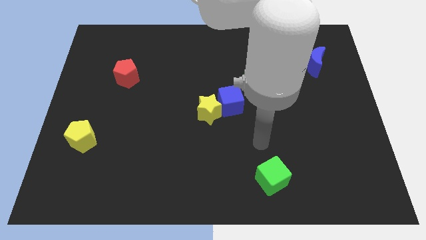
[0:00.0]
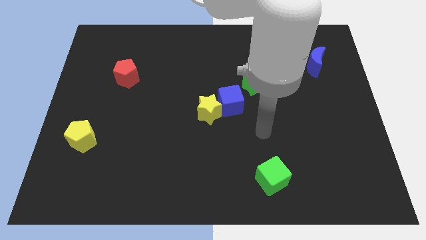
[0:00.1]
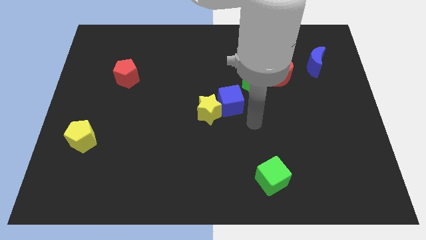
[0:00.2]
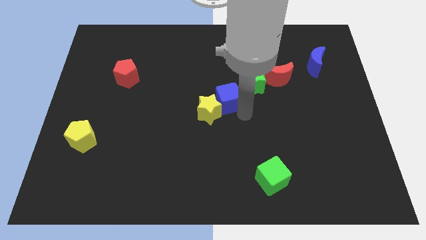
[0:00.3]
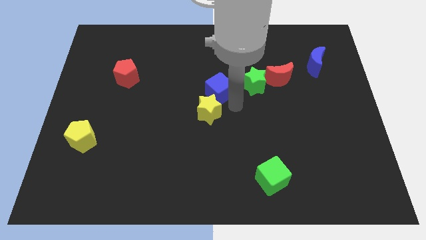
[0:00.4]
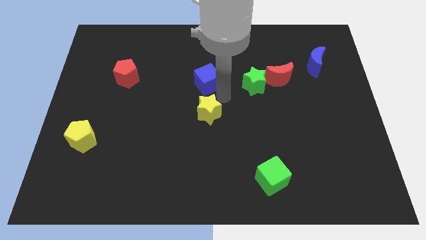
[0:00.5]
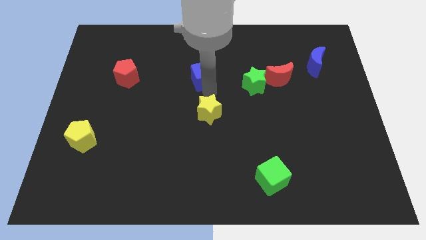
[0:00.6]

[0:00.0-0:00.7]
move the yellow star away from the blue cube

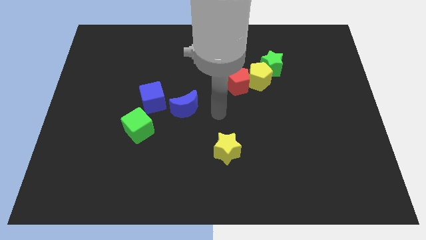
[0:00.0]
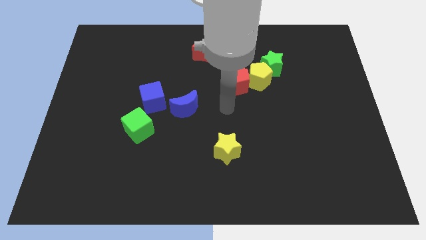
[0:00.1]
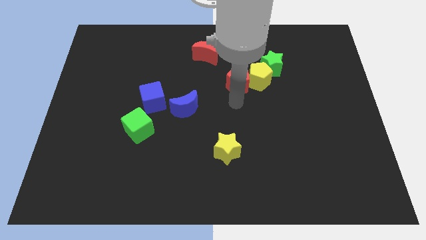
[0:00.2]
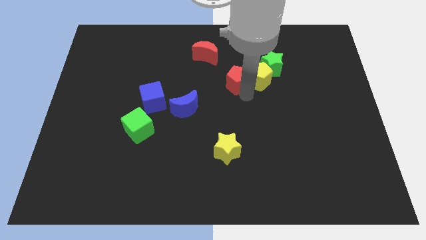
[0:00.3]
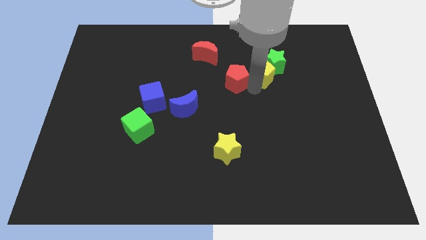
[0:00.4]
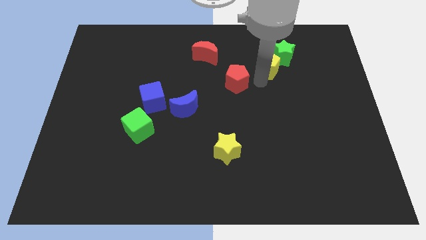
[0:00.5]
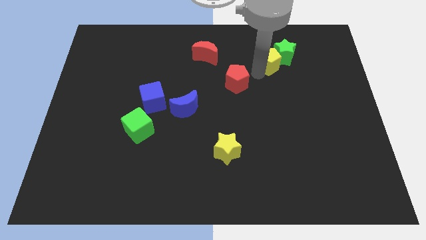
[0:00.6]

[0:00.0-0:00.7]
move the red pentagon away from the yellow pentagon

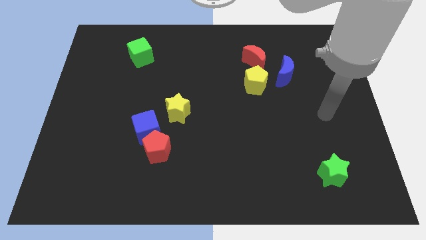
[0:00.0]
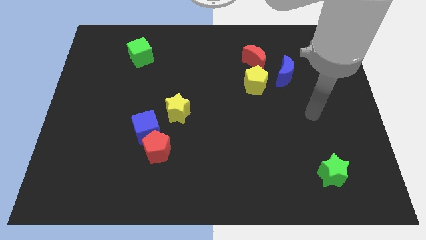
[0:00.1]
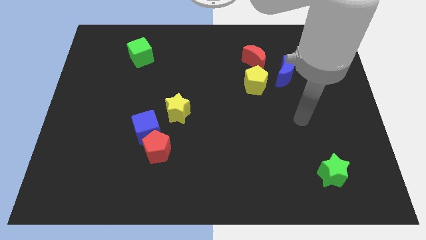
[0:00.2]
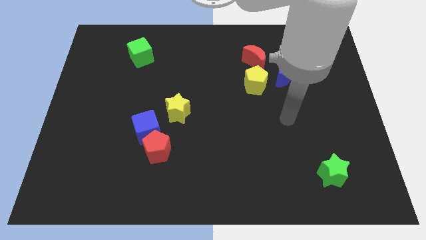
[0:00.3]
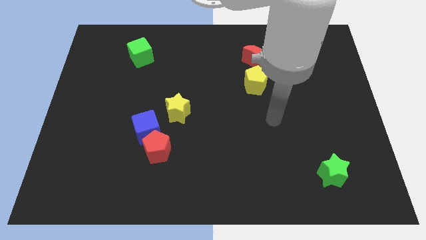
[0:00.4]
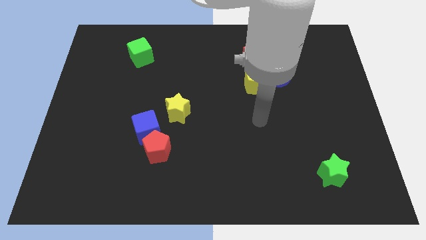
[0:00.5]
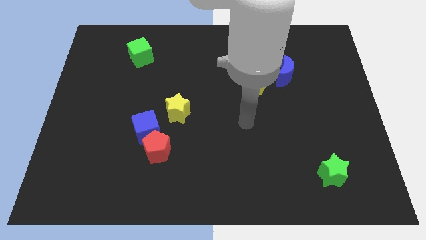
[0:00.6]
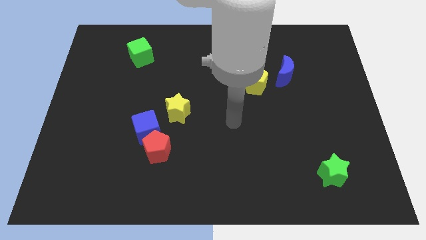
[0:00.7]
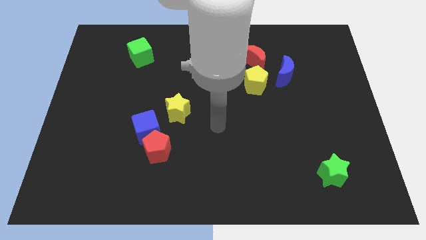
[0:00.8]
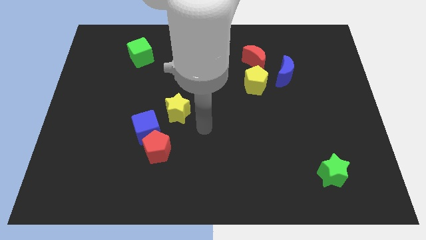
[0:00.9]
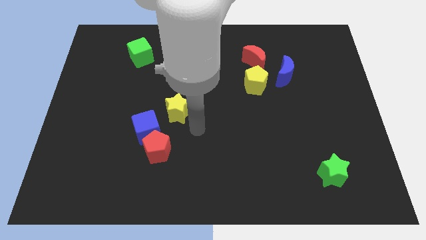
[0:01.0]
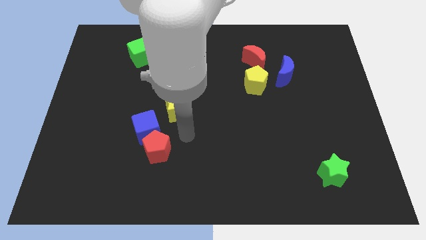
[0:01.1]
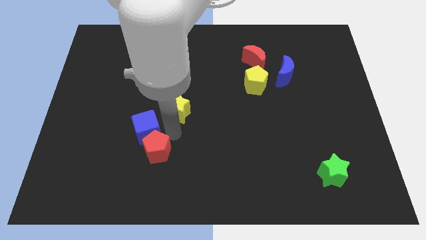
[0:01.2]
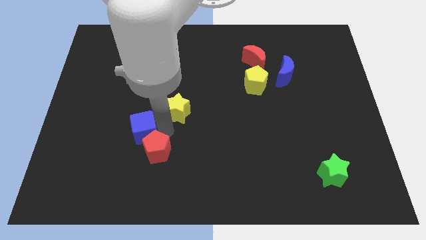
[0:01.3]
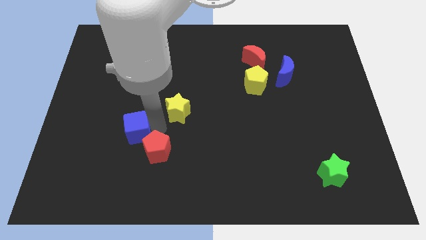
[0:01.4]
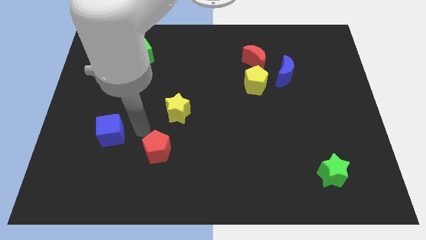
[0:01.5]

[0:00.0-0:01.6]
move the red pentagon away from the blue cube

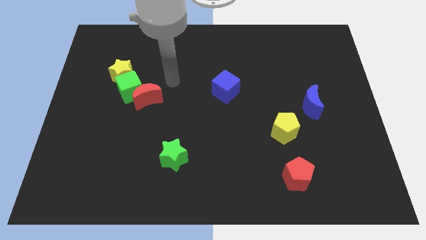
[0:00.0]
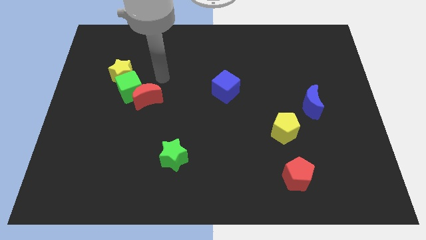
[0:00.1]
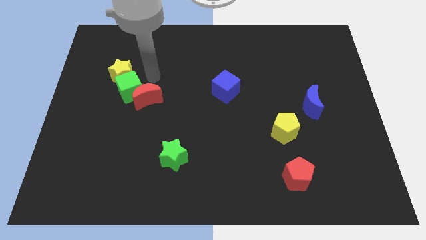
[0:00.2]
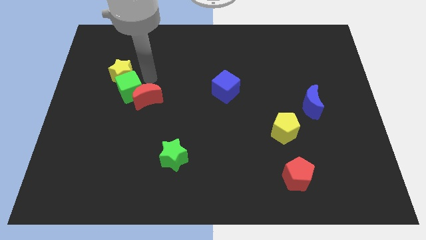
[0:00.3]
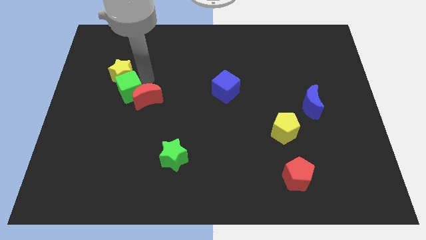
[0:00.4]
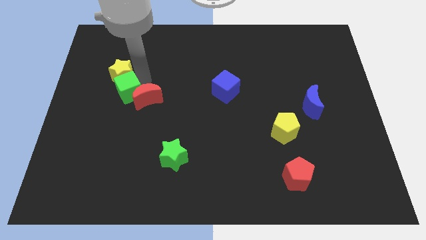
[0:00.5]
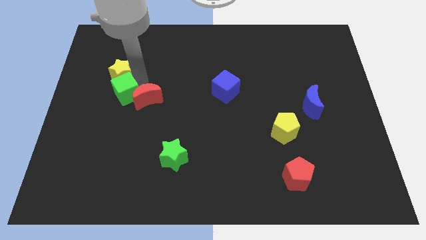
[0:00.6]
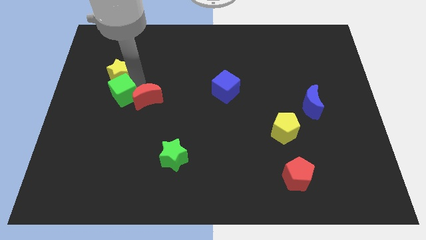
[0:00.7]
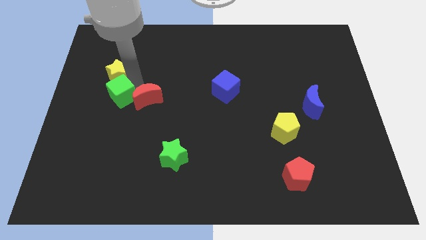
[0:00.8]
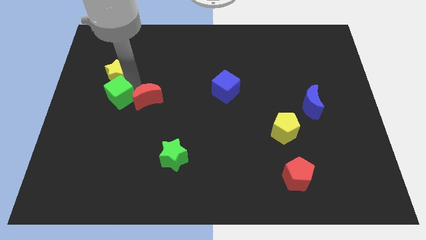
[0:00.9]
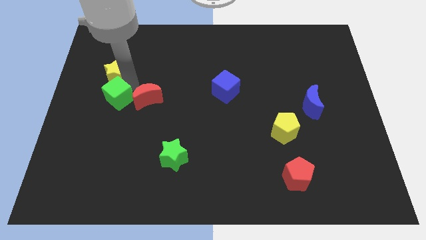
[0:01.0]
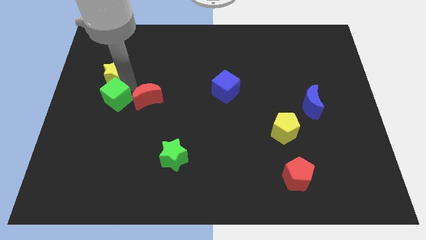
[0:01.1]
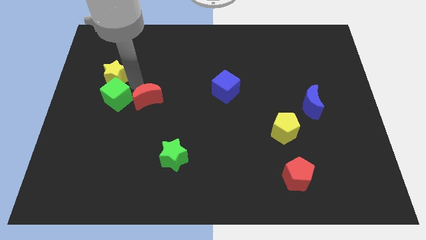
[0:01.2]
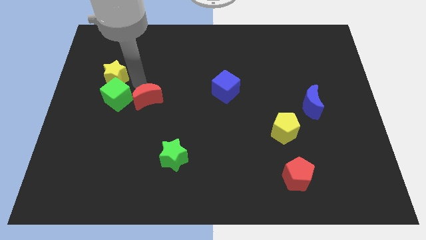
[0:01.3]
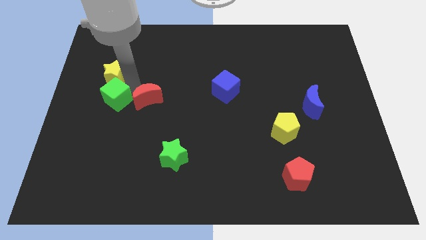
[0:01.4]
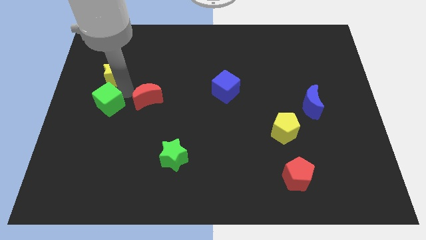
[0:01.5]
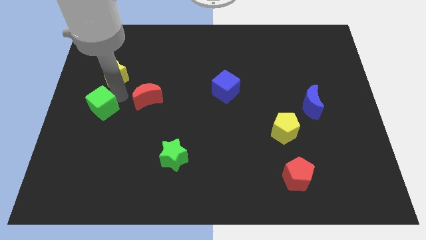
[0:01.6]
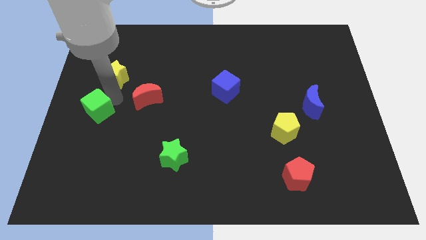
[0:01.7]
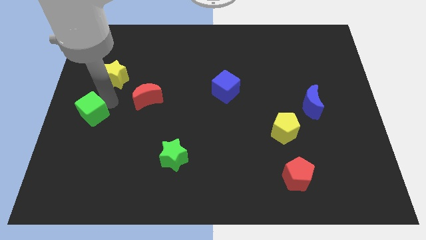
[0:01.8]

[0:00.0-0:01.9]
pull the green cube apart from the yellow star and red moon

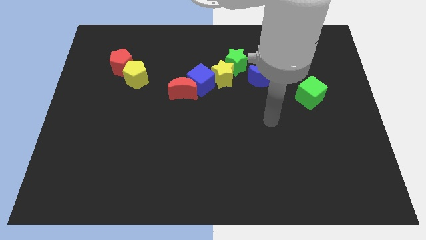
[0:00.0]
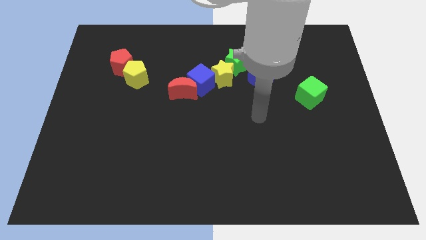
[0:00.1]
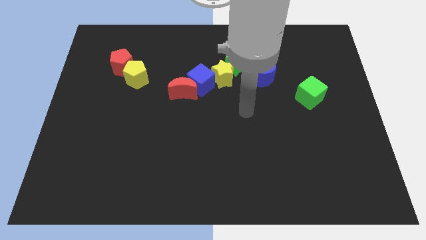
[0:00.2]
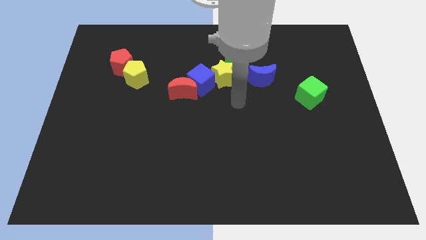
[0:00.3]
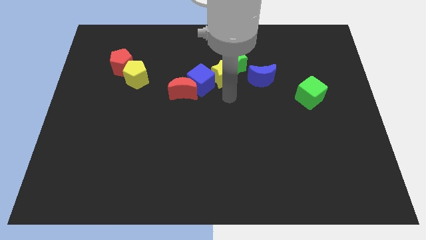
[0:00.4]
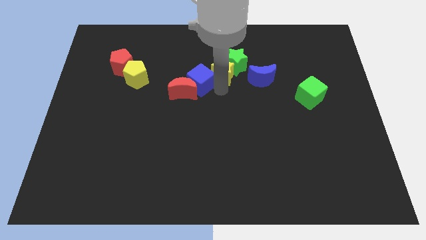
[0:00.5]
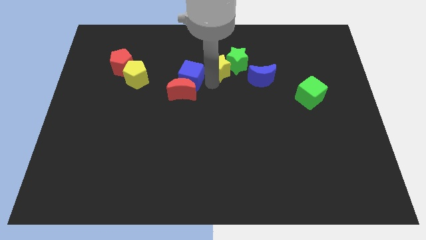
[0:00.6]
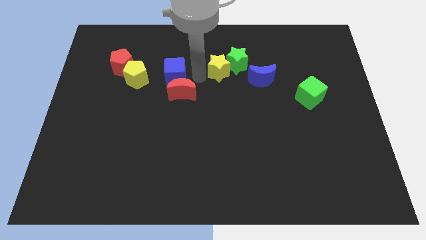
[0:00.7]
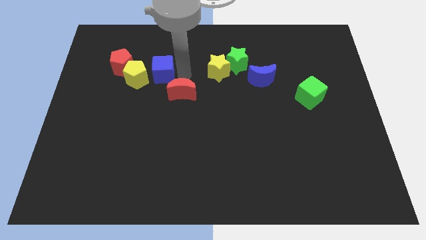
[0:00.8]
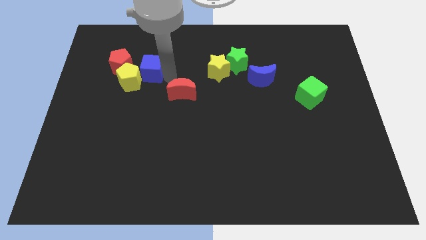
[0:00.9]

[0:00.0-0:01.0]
pull the red moon apart from the blue cube

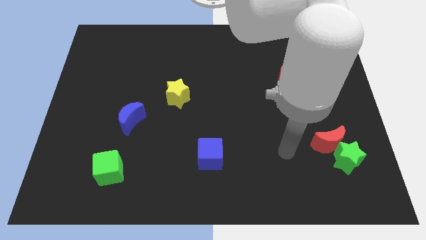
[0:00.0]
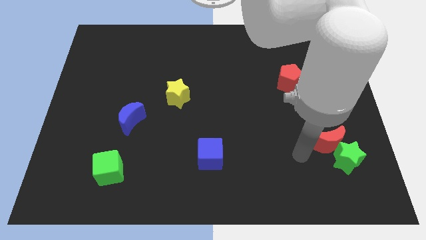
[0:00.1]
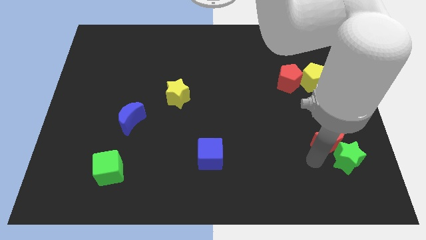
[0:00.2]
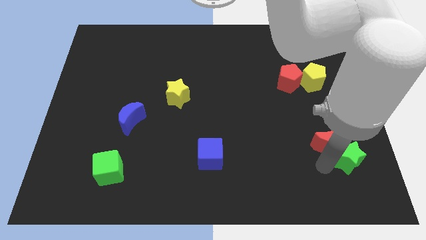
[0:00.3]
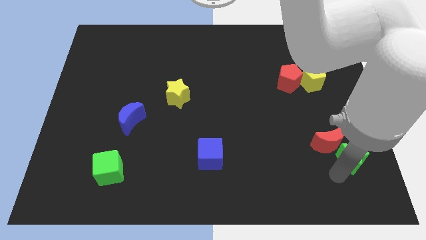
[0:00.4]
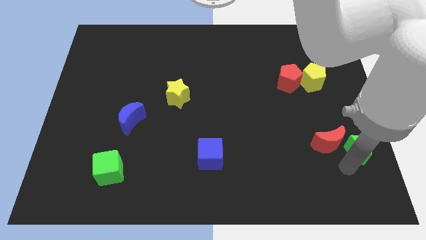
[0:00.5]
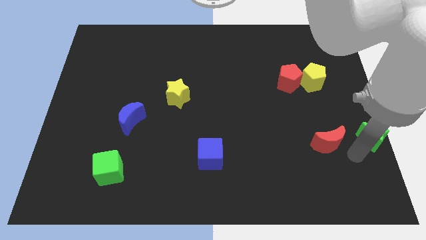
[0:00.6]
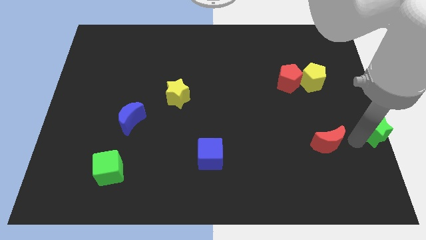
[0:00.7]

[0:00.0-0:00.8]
pull the red moon apart from the green star

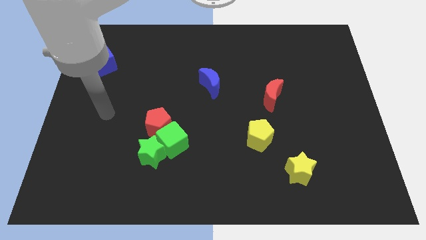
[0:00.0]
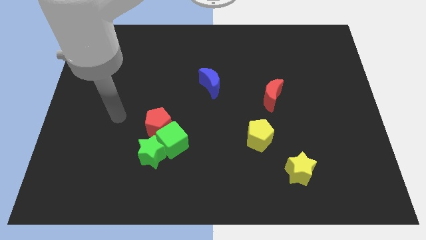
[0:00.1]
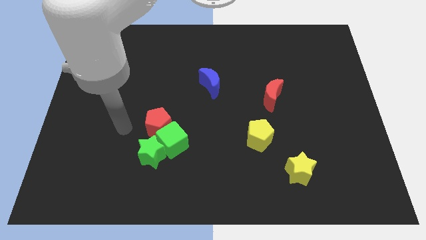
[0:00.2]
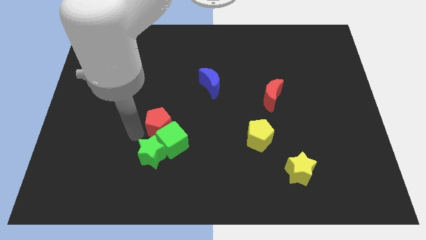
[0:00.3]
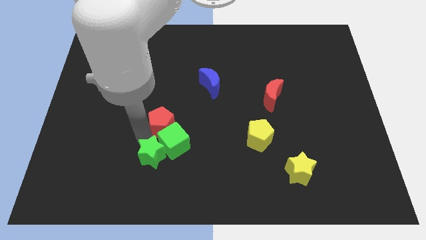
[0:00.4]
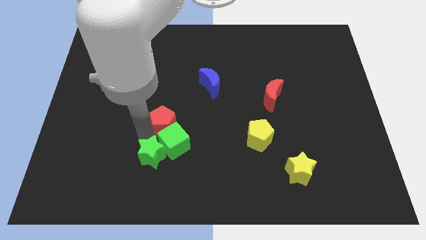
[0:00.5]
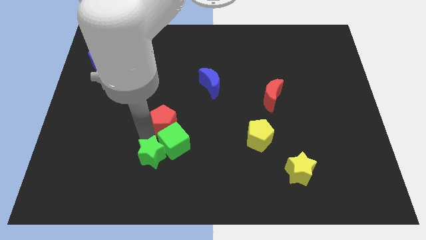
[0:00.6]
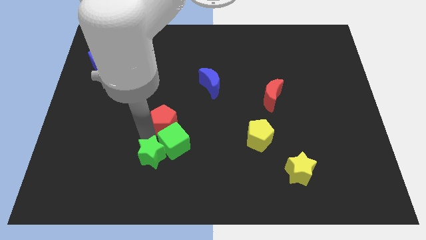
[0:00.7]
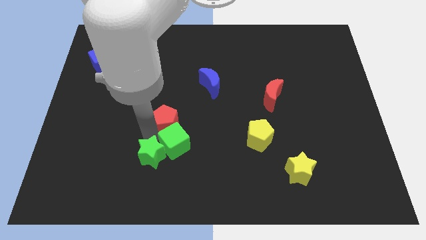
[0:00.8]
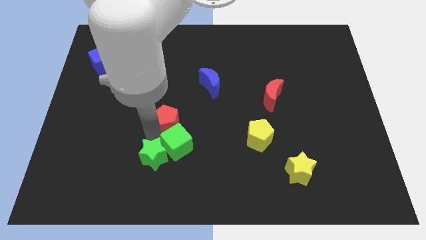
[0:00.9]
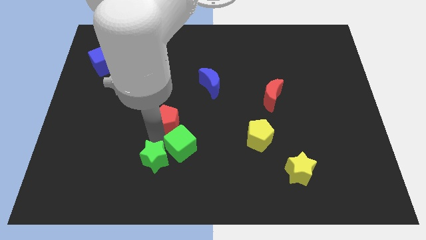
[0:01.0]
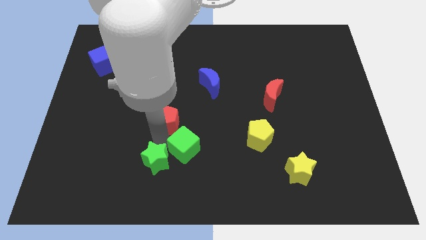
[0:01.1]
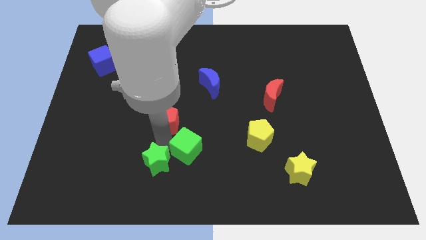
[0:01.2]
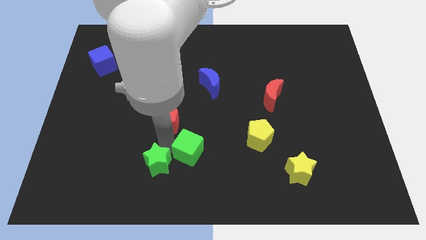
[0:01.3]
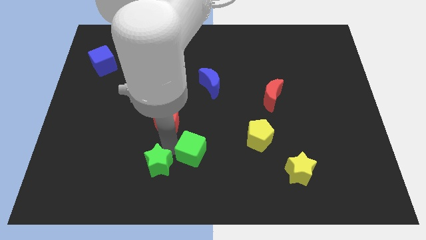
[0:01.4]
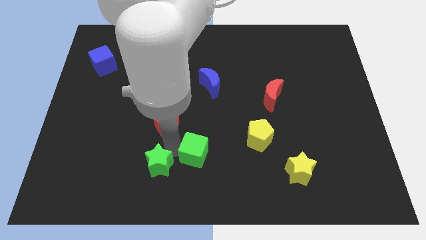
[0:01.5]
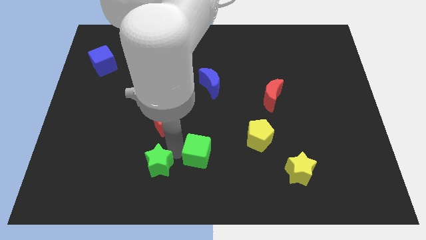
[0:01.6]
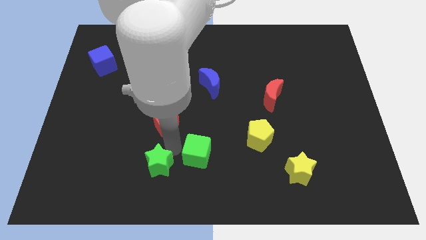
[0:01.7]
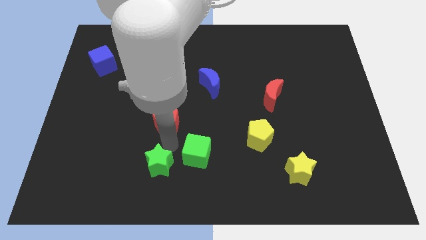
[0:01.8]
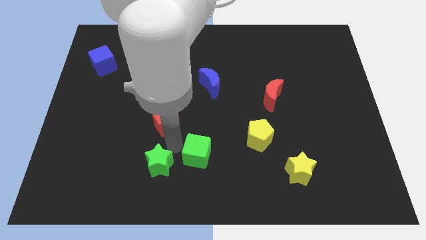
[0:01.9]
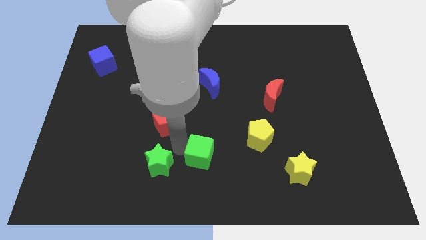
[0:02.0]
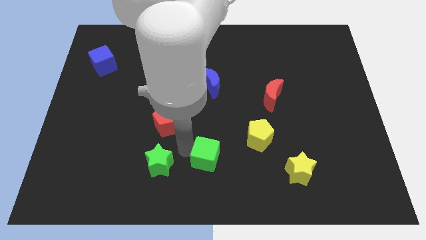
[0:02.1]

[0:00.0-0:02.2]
separate the green cube from the green star and red pentagon

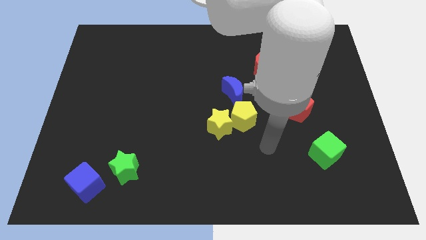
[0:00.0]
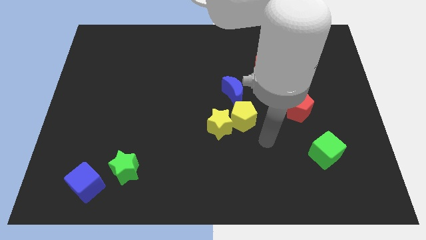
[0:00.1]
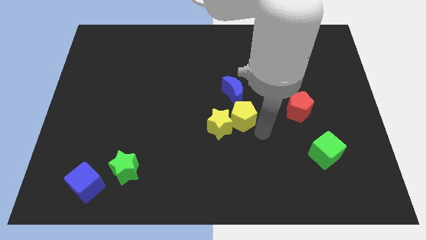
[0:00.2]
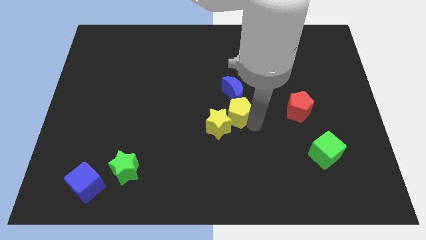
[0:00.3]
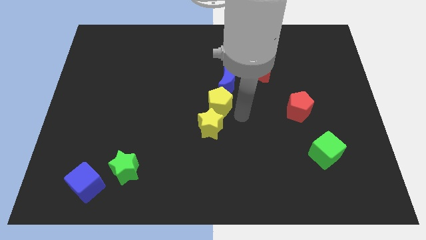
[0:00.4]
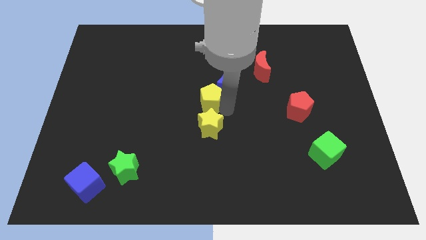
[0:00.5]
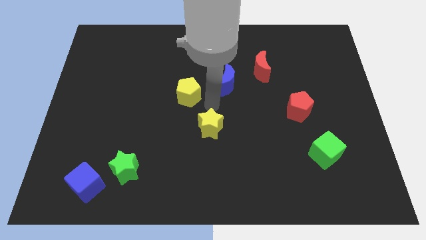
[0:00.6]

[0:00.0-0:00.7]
separate the yellow star from the yellow pentagon
